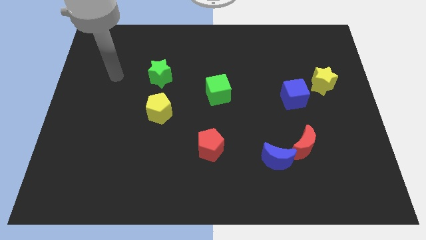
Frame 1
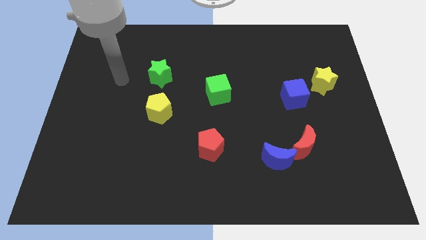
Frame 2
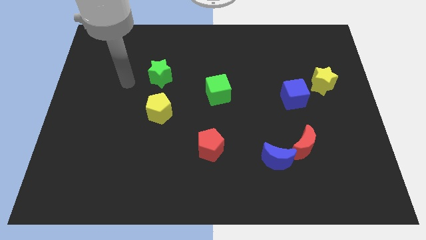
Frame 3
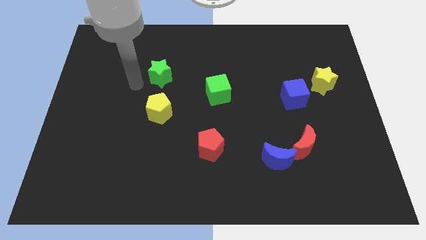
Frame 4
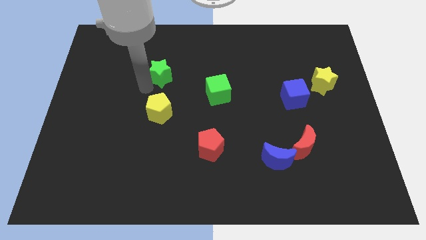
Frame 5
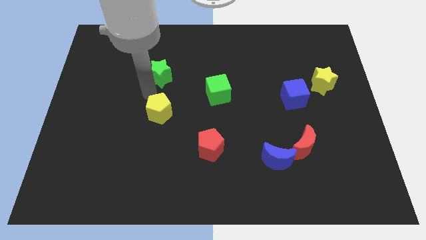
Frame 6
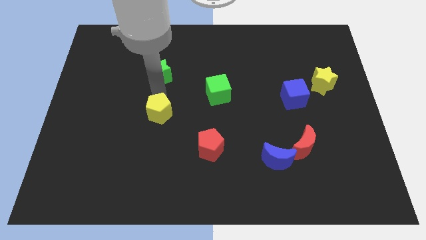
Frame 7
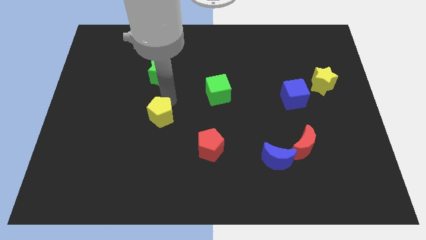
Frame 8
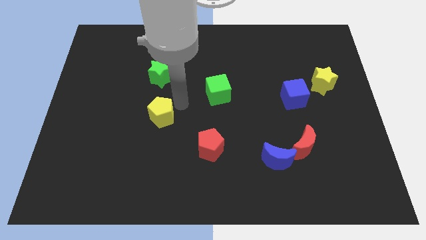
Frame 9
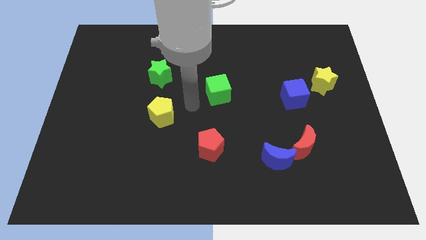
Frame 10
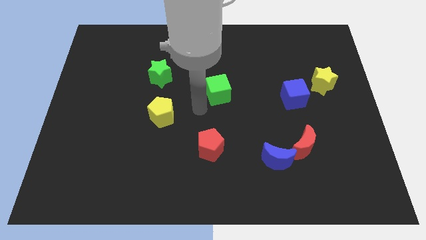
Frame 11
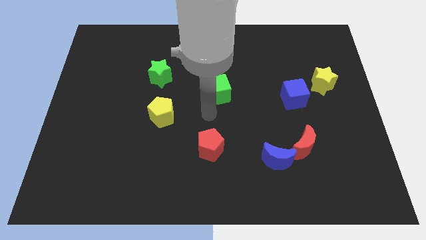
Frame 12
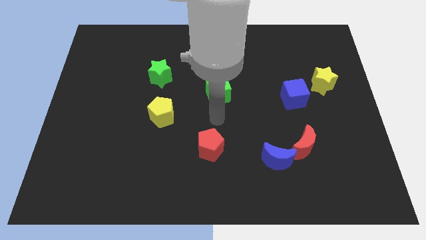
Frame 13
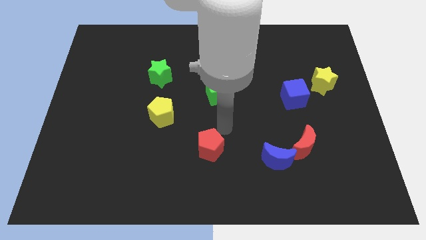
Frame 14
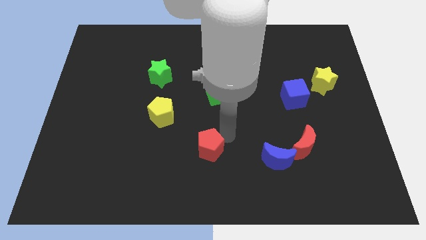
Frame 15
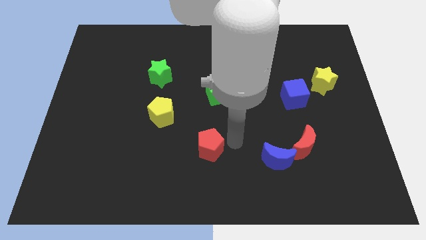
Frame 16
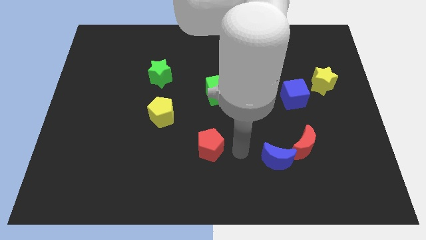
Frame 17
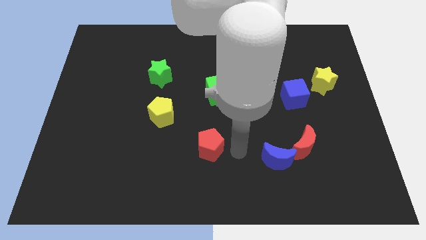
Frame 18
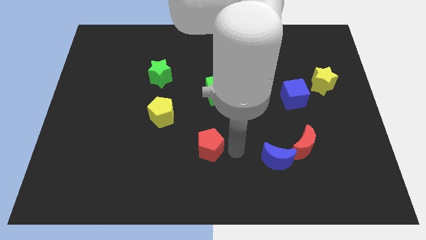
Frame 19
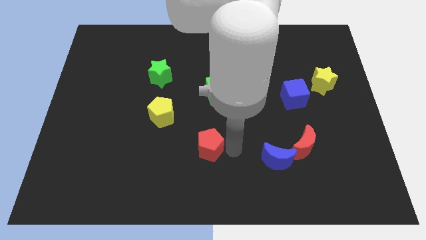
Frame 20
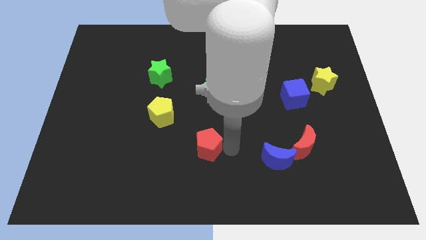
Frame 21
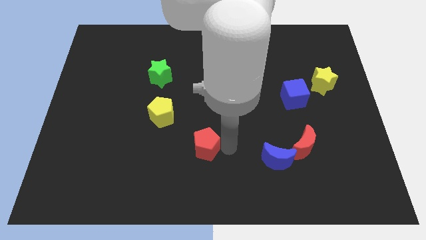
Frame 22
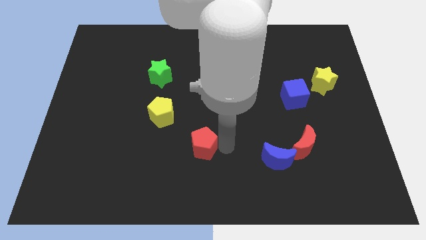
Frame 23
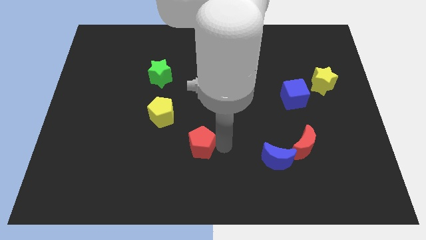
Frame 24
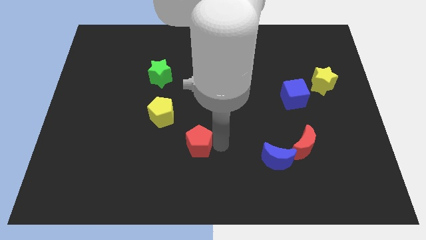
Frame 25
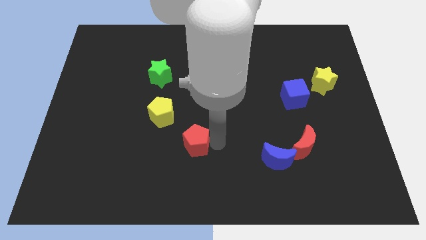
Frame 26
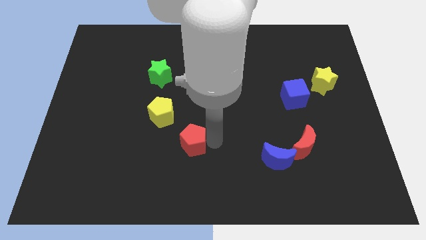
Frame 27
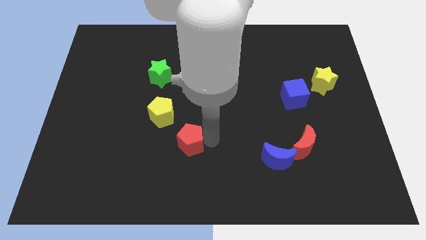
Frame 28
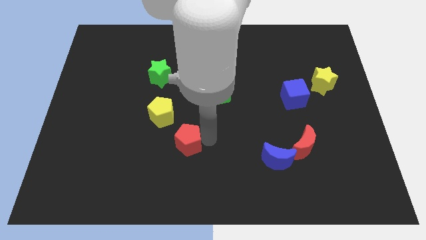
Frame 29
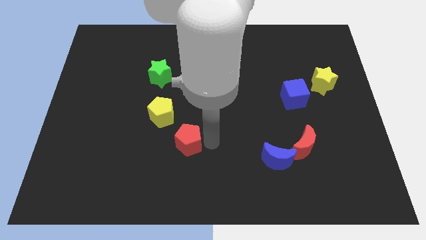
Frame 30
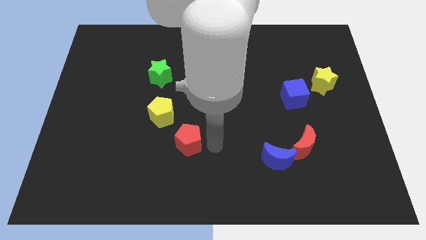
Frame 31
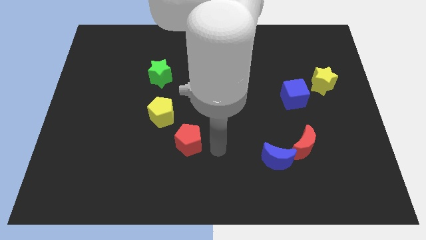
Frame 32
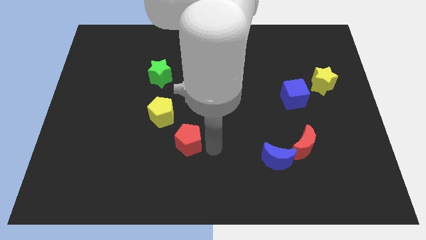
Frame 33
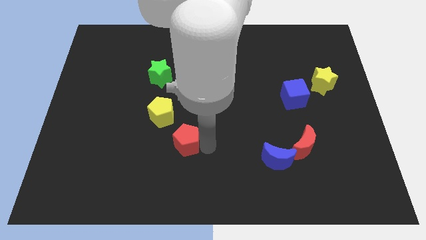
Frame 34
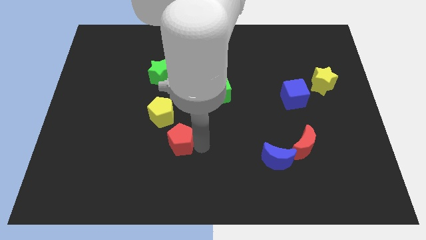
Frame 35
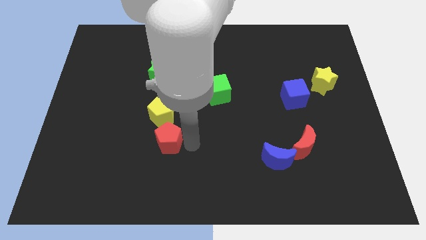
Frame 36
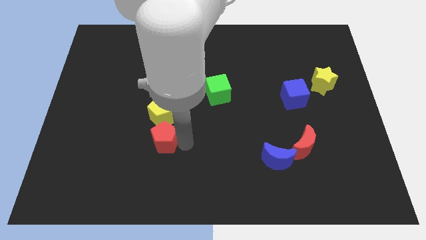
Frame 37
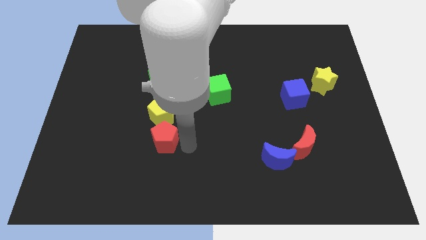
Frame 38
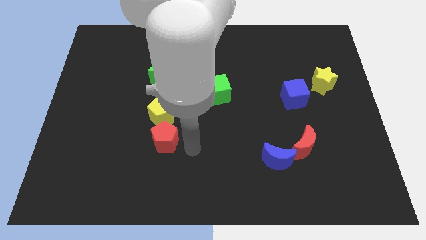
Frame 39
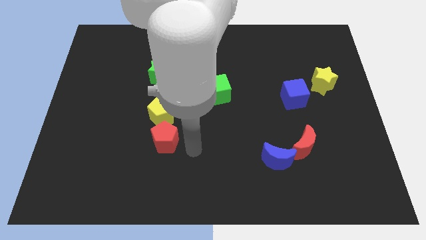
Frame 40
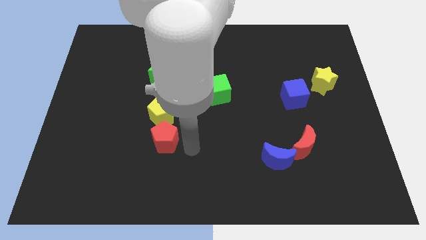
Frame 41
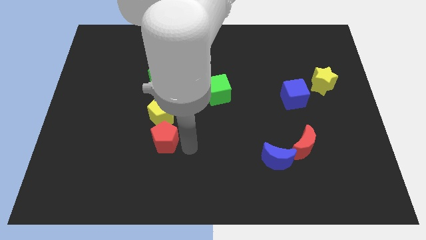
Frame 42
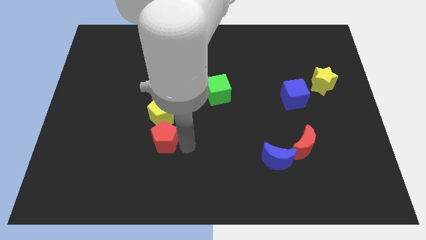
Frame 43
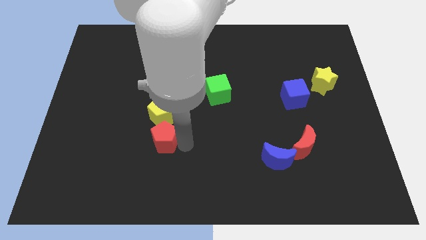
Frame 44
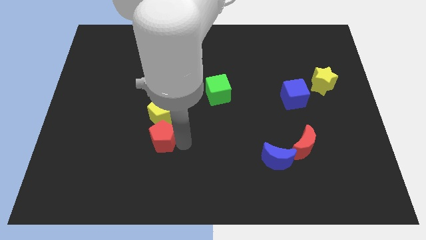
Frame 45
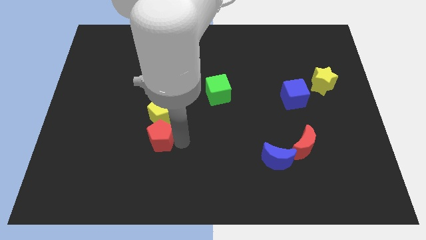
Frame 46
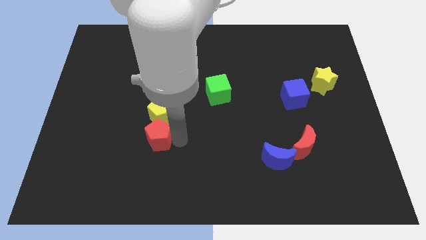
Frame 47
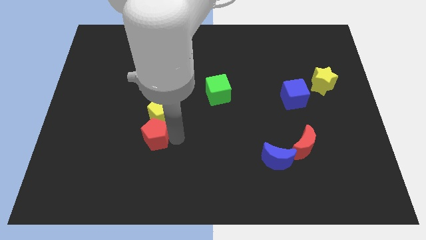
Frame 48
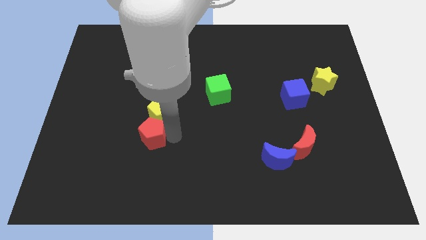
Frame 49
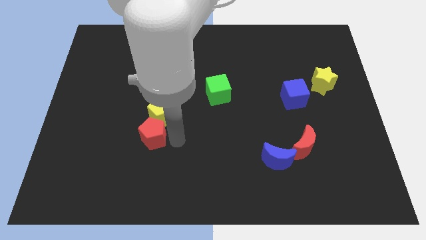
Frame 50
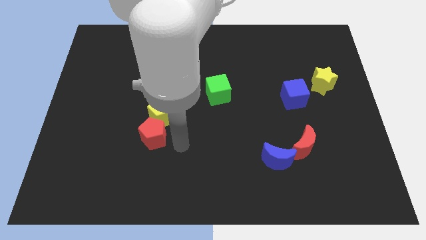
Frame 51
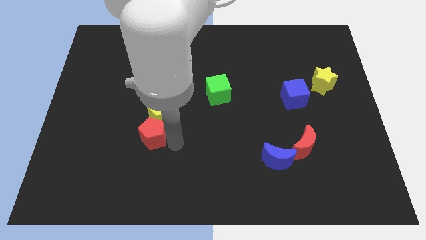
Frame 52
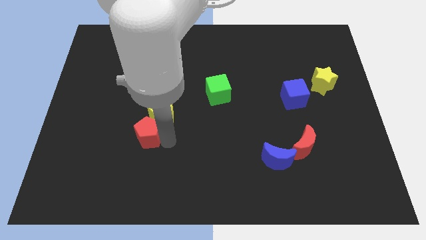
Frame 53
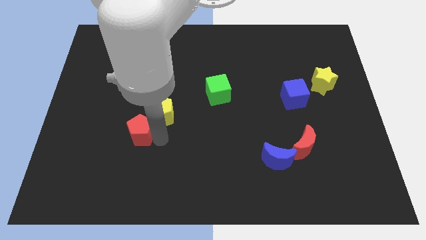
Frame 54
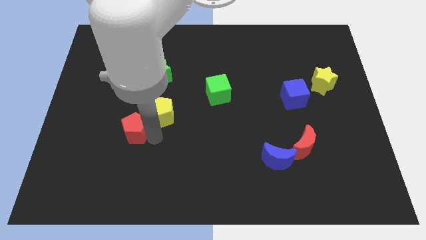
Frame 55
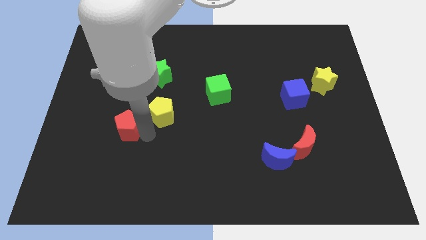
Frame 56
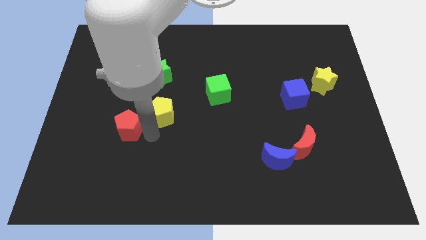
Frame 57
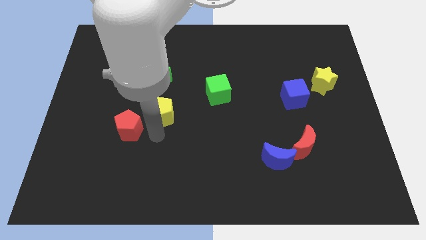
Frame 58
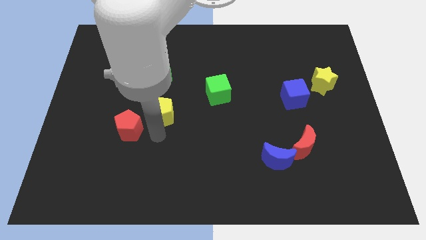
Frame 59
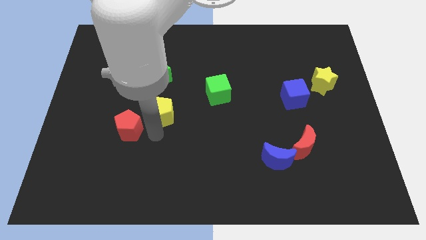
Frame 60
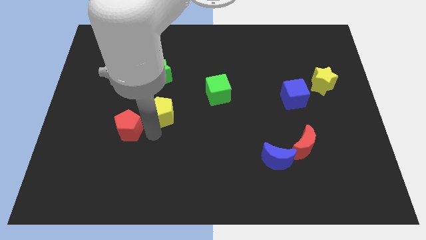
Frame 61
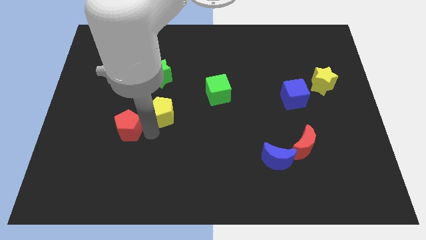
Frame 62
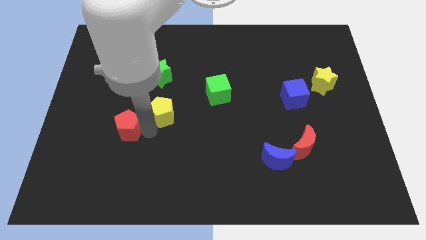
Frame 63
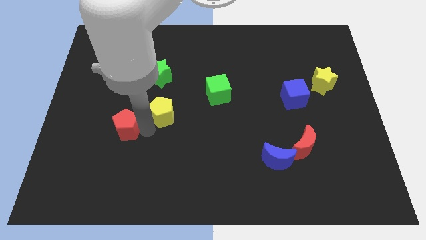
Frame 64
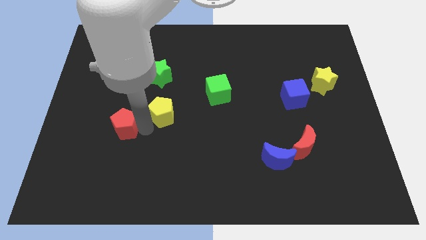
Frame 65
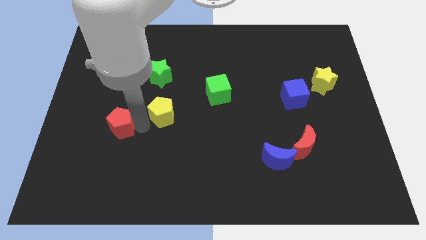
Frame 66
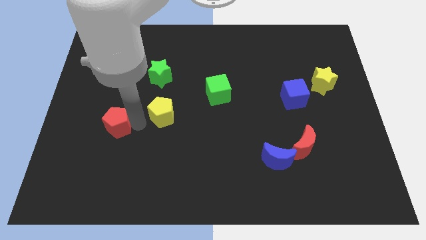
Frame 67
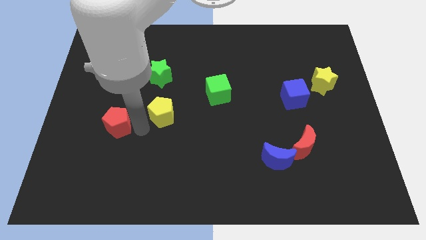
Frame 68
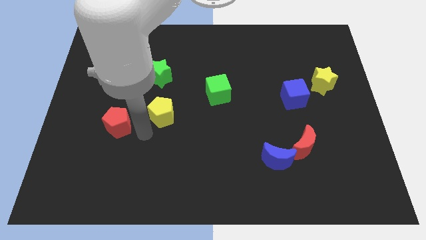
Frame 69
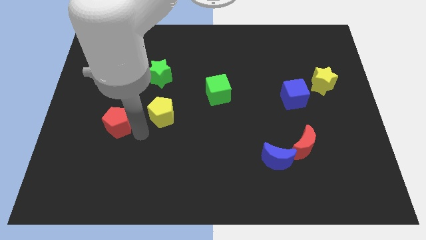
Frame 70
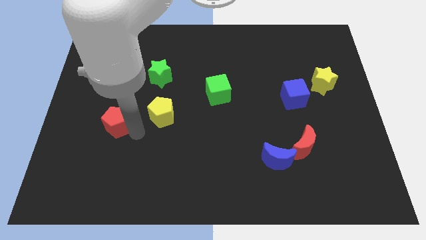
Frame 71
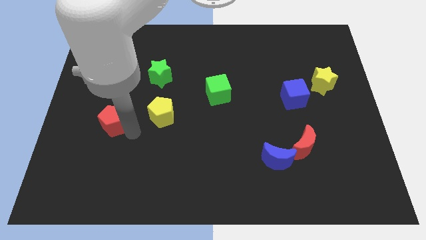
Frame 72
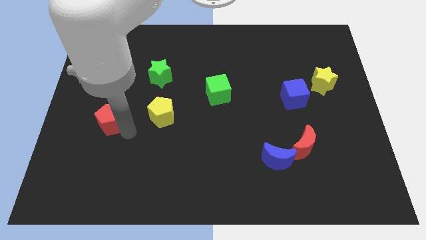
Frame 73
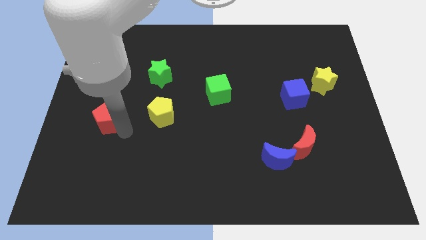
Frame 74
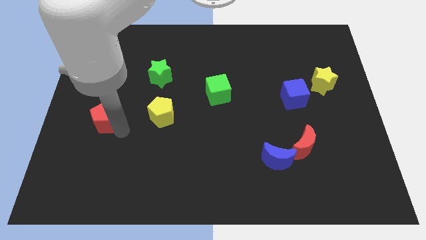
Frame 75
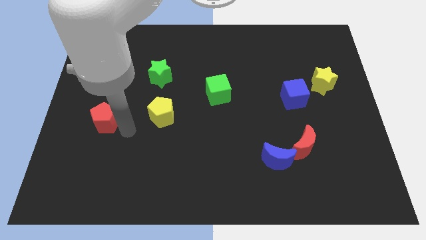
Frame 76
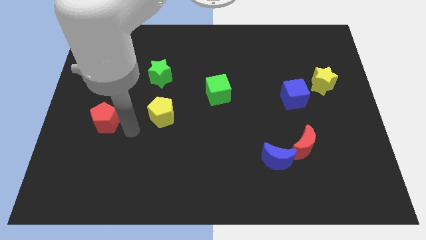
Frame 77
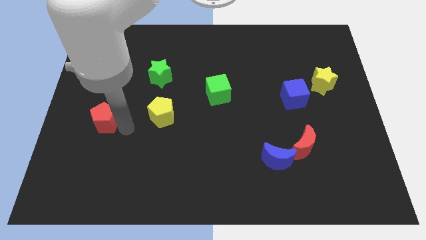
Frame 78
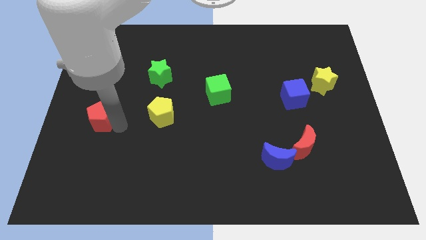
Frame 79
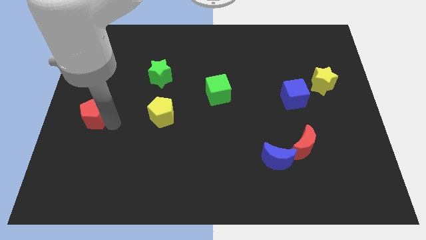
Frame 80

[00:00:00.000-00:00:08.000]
push the red pentagon to the center left
